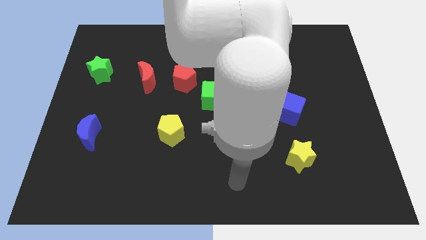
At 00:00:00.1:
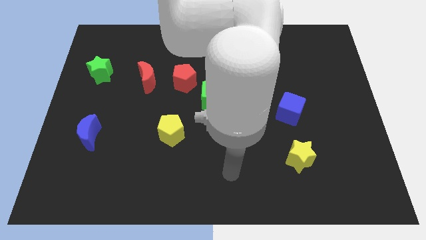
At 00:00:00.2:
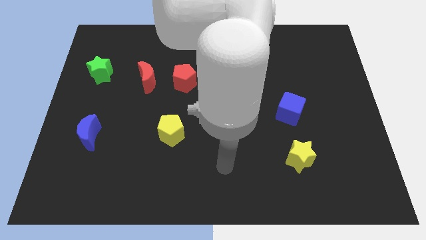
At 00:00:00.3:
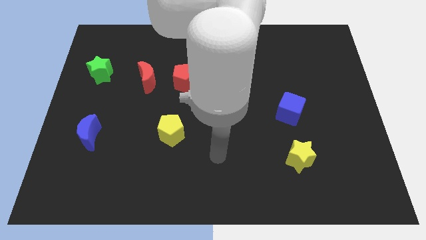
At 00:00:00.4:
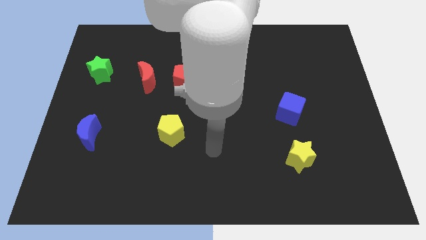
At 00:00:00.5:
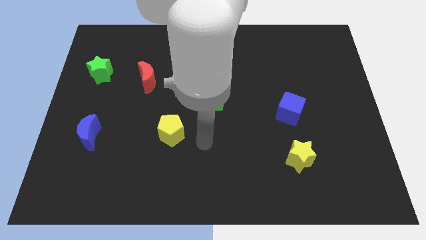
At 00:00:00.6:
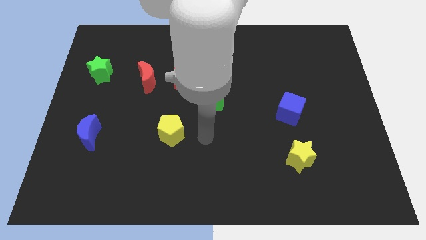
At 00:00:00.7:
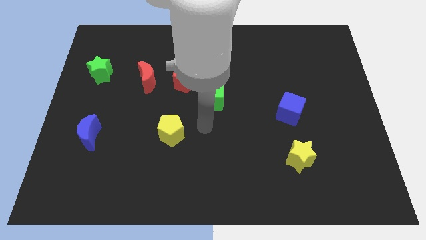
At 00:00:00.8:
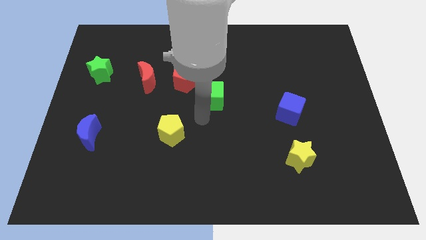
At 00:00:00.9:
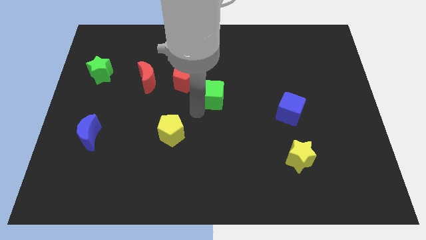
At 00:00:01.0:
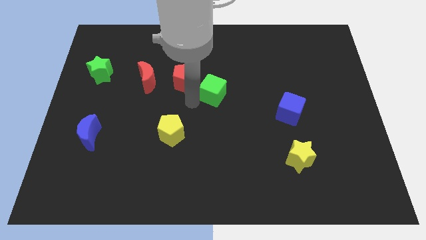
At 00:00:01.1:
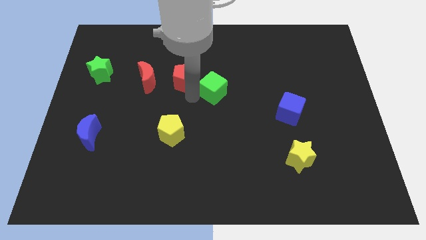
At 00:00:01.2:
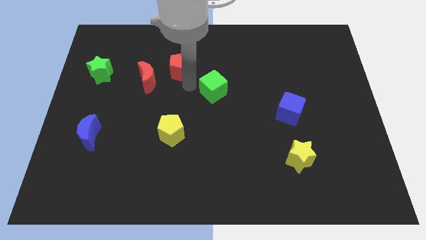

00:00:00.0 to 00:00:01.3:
separate the green cube from the red pentagon

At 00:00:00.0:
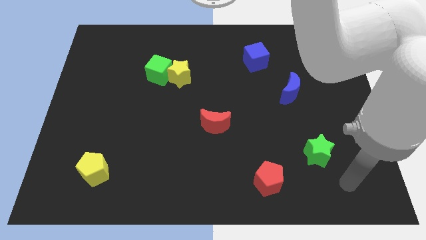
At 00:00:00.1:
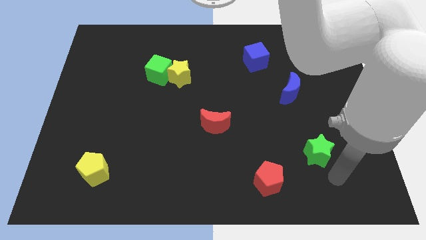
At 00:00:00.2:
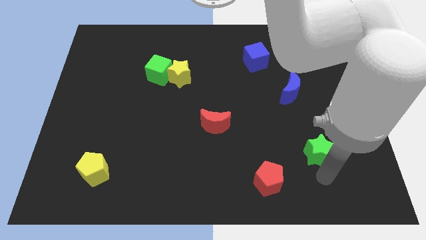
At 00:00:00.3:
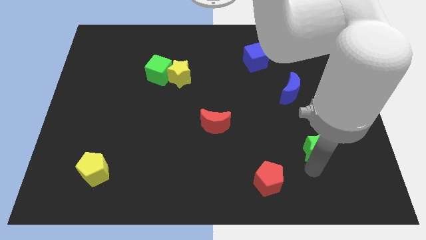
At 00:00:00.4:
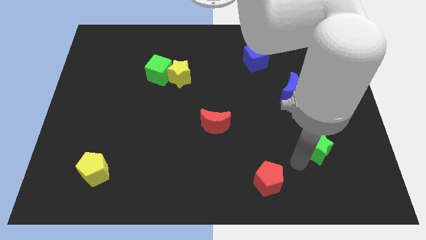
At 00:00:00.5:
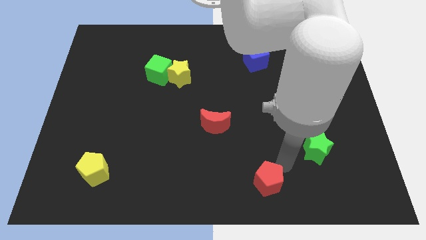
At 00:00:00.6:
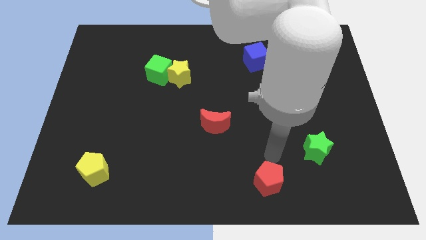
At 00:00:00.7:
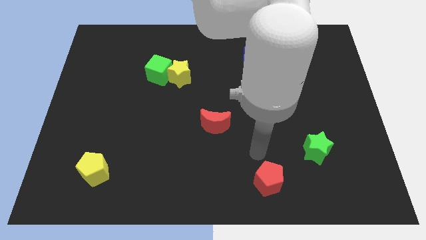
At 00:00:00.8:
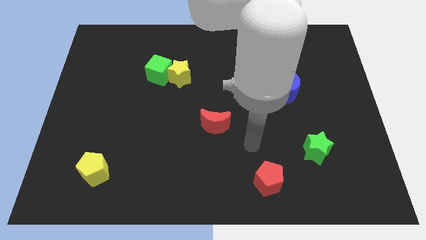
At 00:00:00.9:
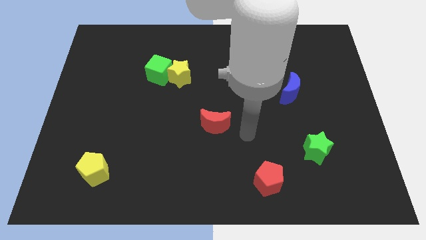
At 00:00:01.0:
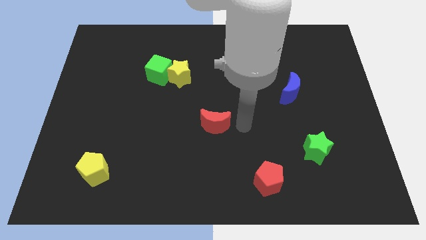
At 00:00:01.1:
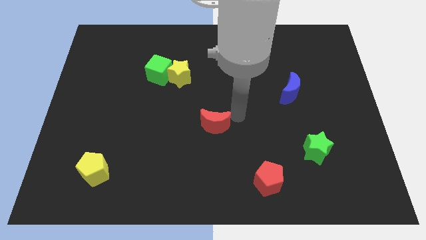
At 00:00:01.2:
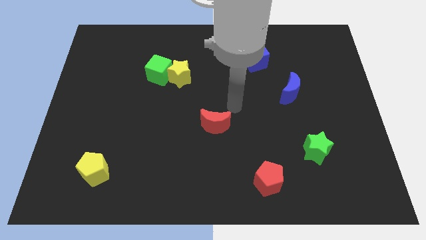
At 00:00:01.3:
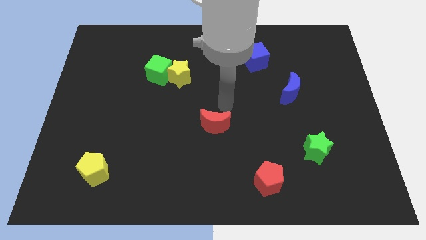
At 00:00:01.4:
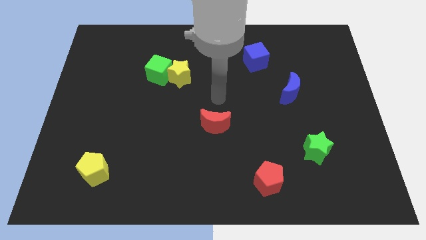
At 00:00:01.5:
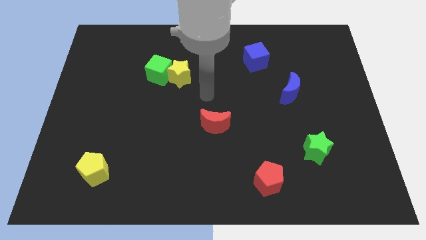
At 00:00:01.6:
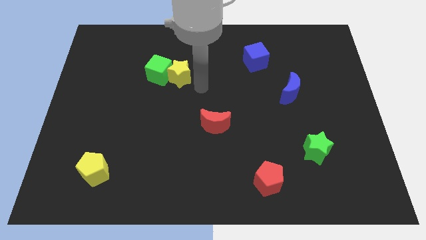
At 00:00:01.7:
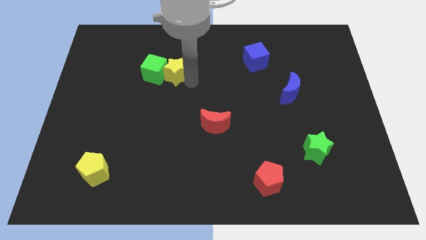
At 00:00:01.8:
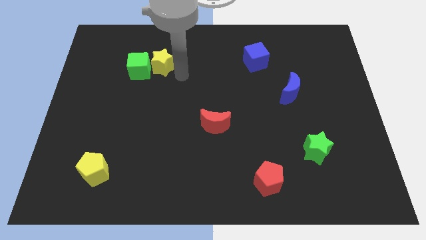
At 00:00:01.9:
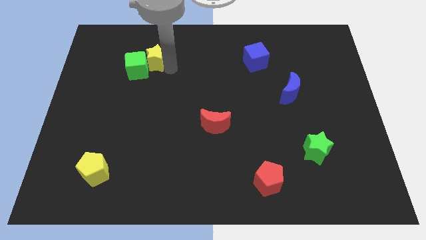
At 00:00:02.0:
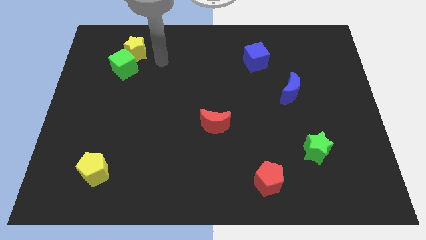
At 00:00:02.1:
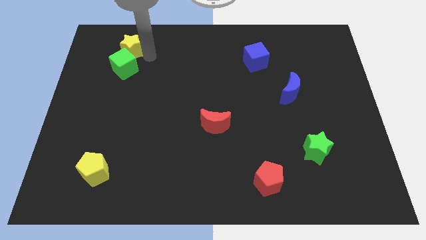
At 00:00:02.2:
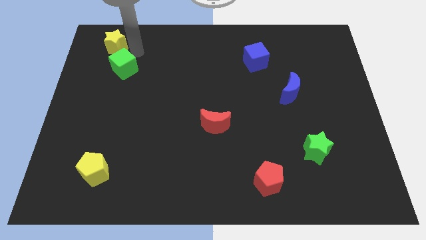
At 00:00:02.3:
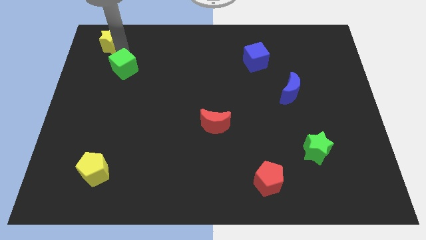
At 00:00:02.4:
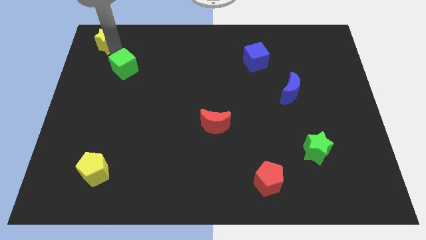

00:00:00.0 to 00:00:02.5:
separate the green cube from the yellow star

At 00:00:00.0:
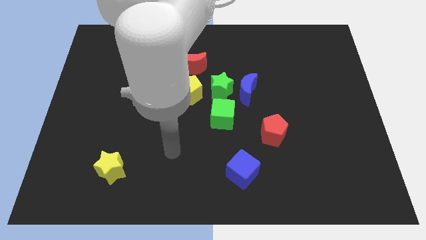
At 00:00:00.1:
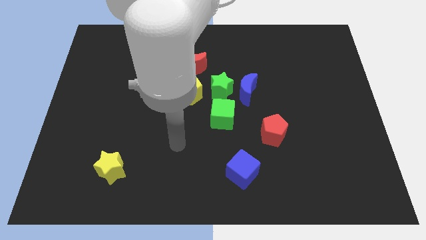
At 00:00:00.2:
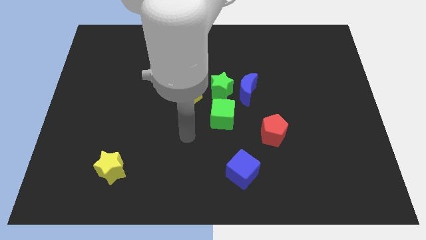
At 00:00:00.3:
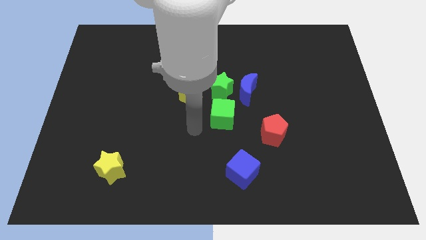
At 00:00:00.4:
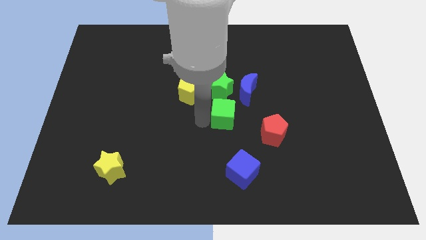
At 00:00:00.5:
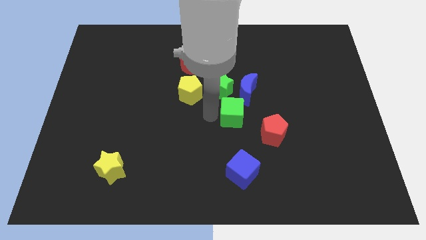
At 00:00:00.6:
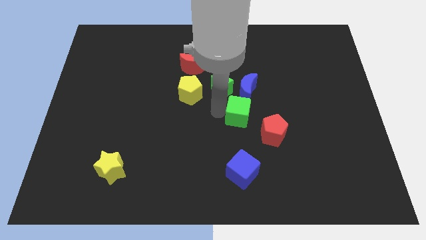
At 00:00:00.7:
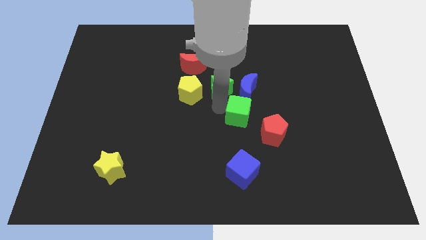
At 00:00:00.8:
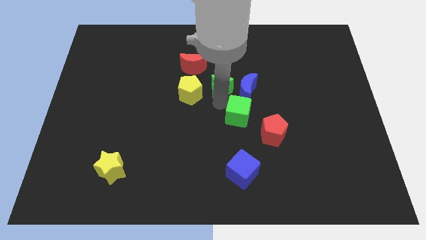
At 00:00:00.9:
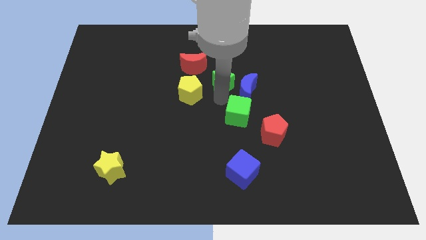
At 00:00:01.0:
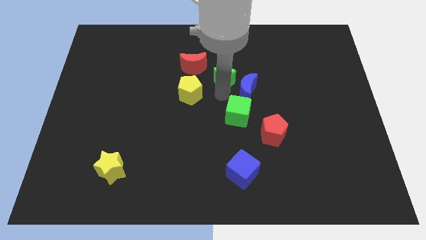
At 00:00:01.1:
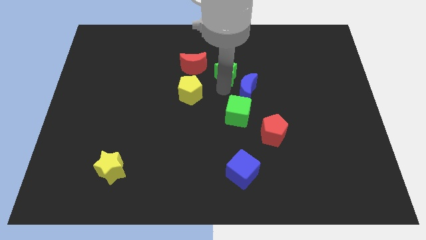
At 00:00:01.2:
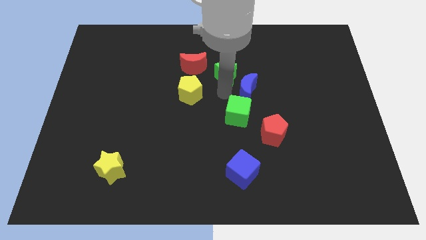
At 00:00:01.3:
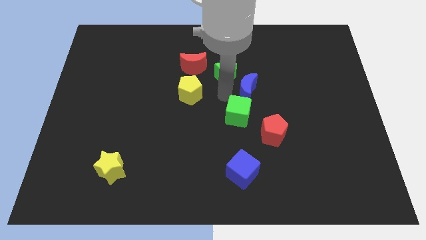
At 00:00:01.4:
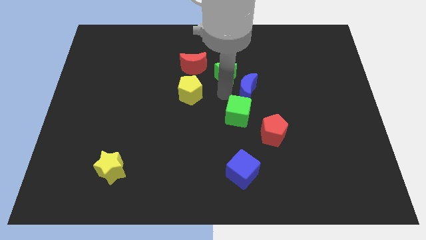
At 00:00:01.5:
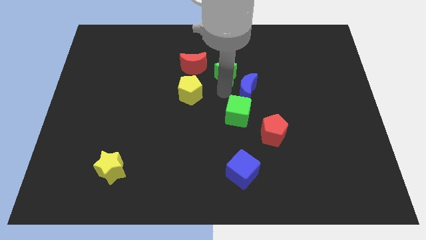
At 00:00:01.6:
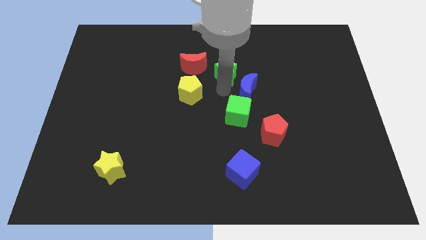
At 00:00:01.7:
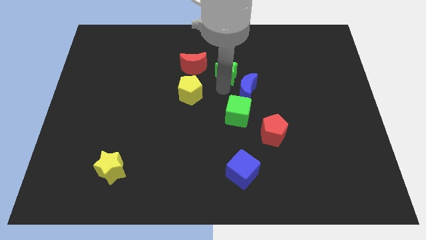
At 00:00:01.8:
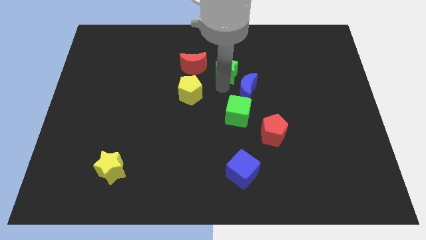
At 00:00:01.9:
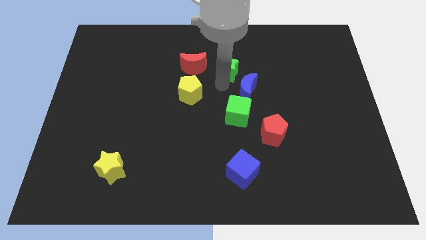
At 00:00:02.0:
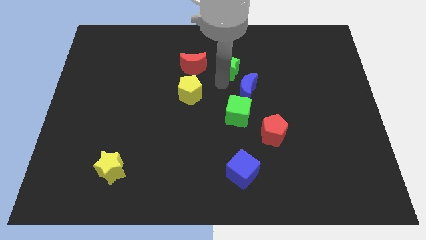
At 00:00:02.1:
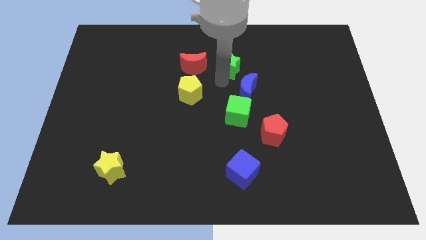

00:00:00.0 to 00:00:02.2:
move the green star away from the group of blocks

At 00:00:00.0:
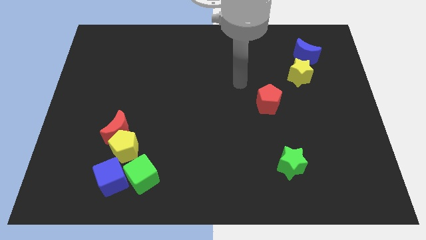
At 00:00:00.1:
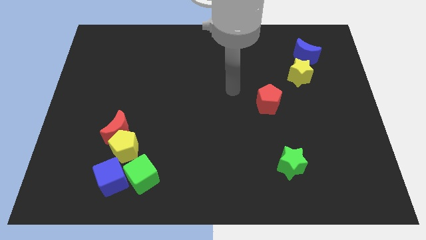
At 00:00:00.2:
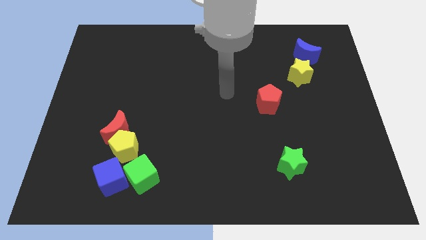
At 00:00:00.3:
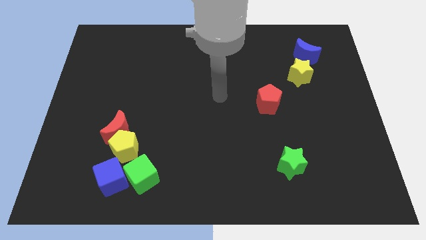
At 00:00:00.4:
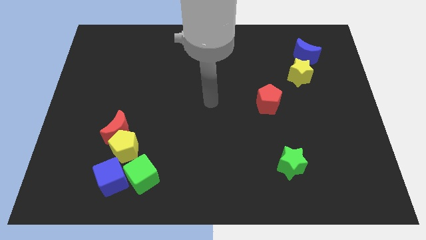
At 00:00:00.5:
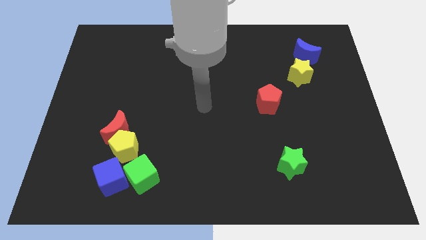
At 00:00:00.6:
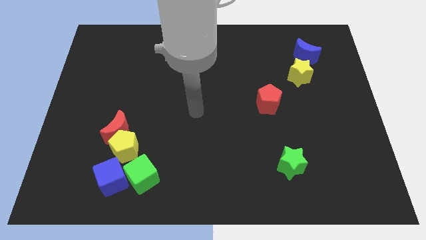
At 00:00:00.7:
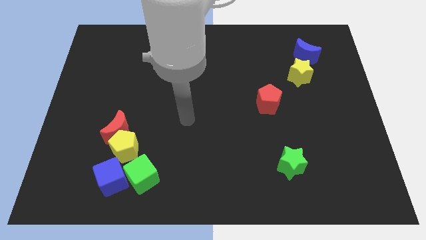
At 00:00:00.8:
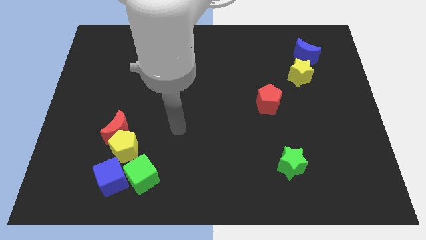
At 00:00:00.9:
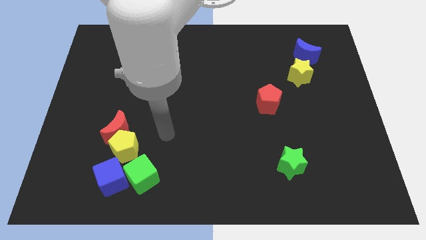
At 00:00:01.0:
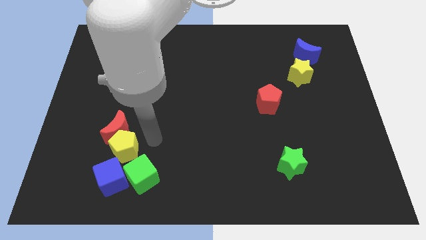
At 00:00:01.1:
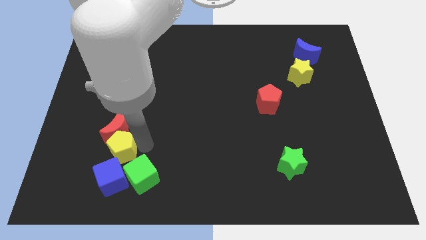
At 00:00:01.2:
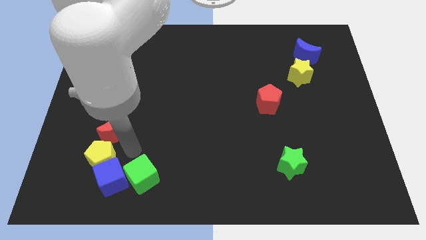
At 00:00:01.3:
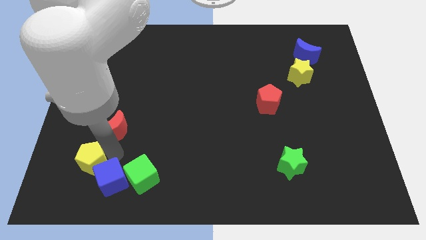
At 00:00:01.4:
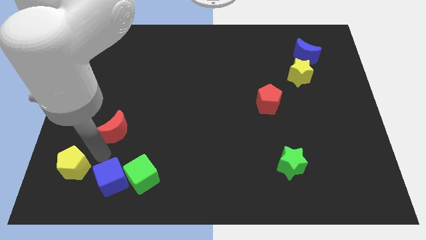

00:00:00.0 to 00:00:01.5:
separate the red moon from the yellow pentagon

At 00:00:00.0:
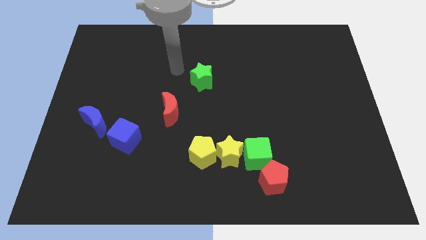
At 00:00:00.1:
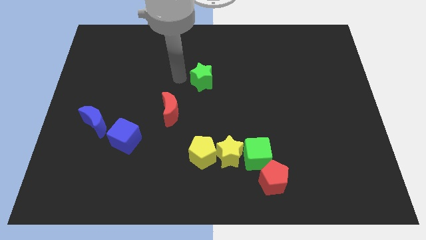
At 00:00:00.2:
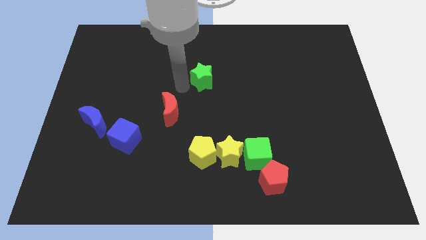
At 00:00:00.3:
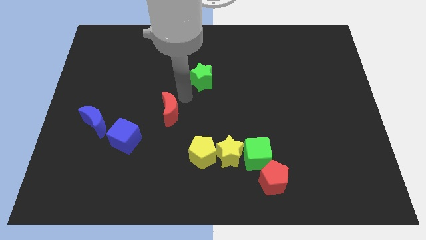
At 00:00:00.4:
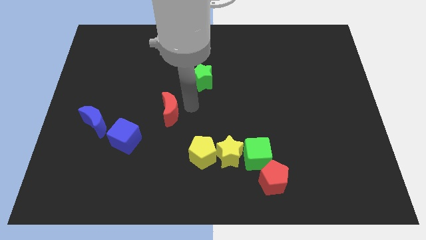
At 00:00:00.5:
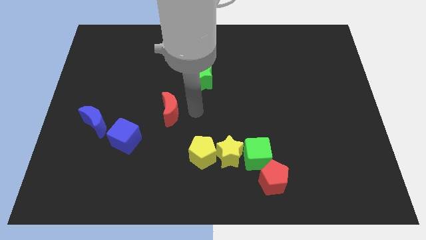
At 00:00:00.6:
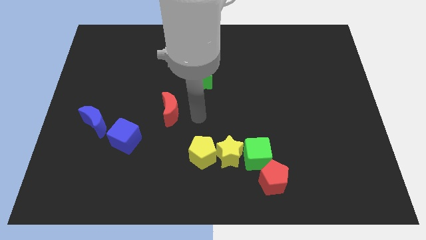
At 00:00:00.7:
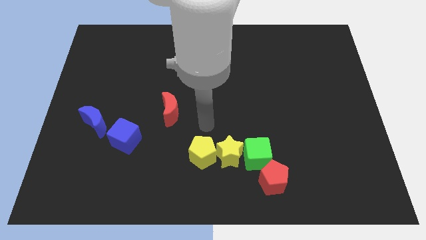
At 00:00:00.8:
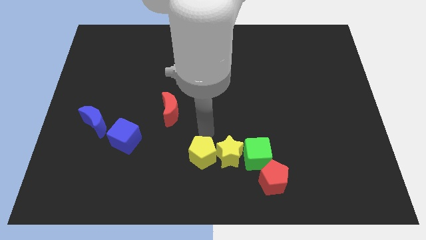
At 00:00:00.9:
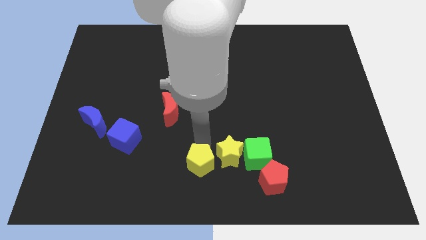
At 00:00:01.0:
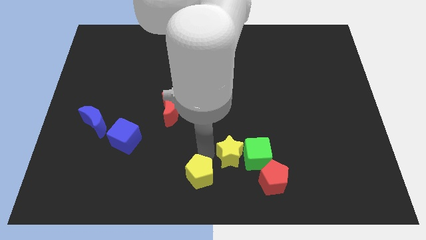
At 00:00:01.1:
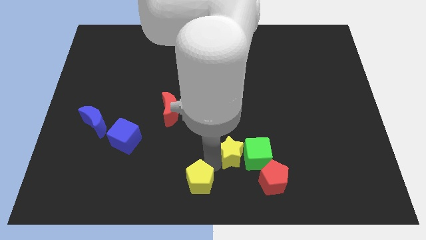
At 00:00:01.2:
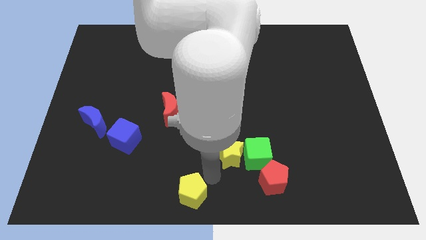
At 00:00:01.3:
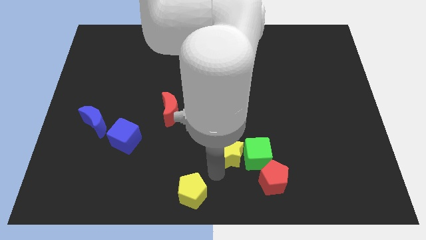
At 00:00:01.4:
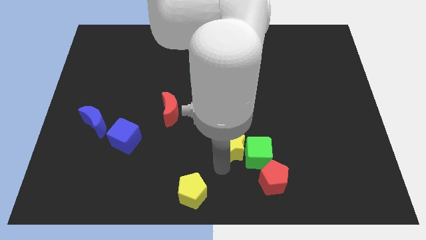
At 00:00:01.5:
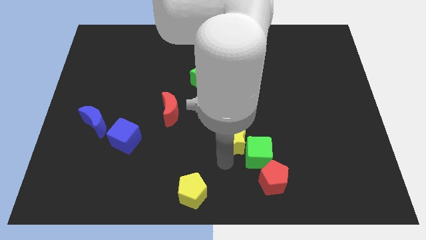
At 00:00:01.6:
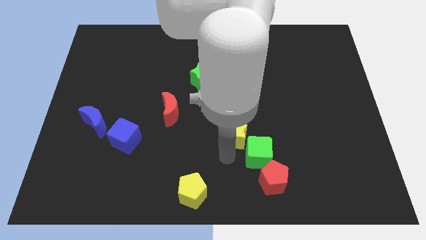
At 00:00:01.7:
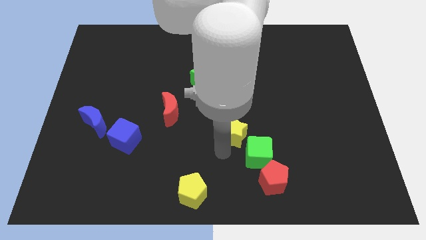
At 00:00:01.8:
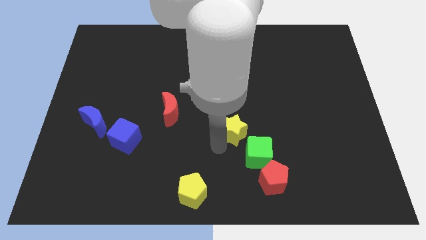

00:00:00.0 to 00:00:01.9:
move the yellow star away from the green cube and yellow pentagon
